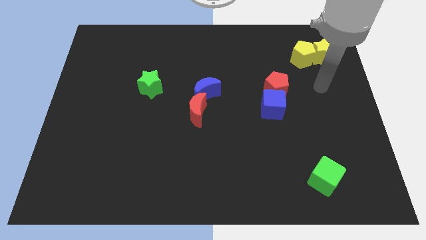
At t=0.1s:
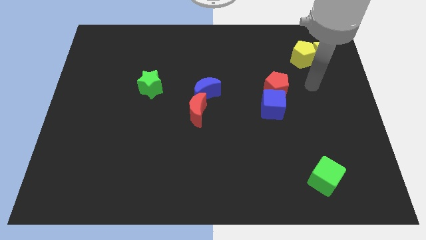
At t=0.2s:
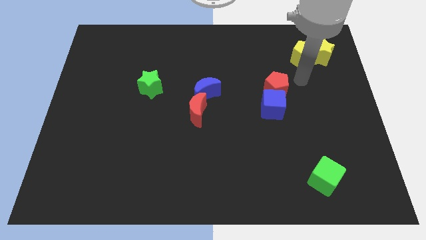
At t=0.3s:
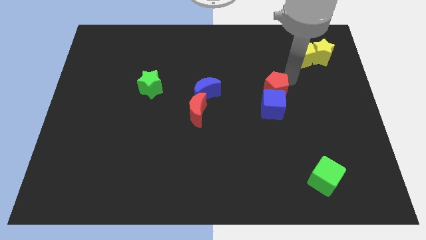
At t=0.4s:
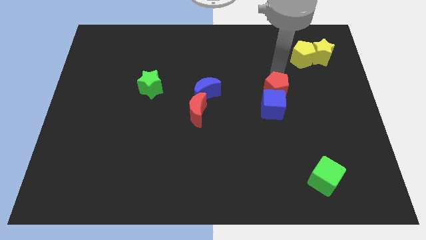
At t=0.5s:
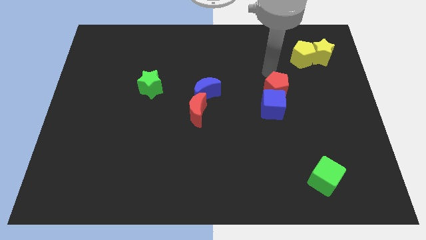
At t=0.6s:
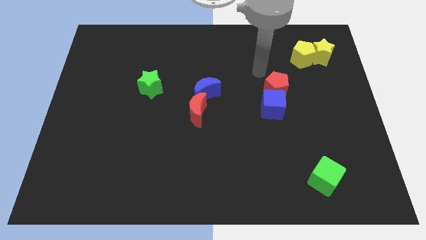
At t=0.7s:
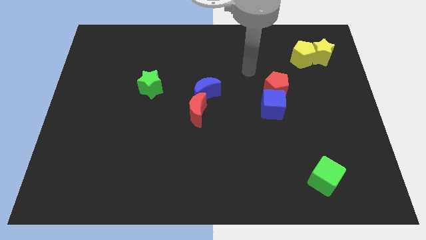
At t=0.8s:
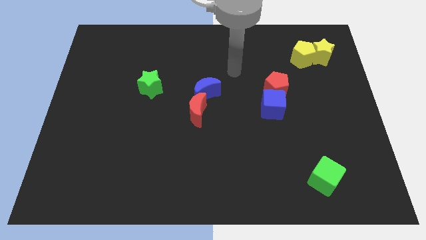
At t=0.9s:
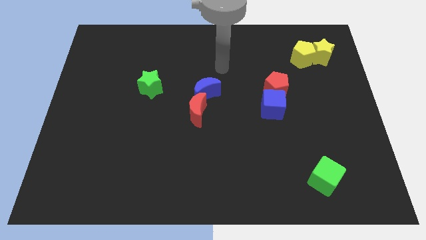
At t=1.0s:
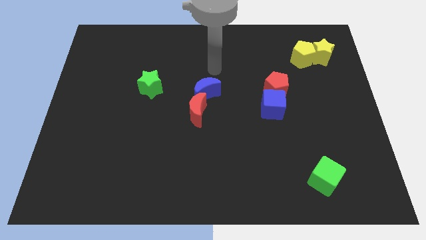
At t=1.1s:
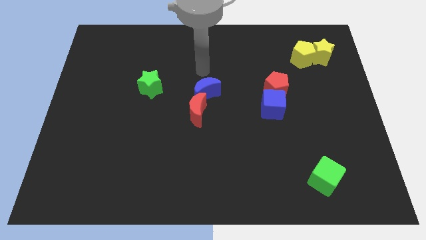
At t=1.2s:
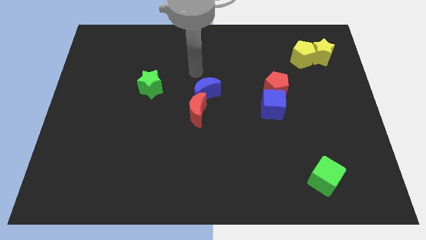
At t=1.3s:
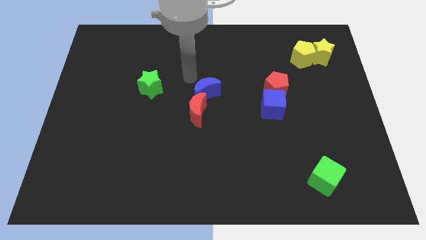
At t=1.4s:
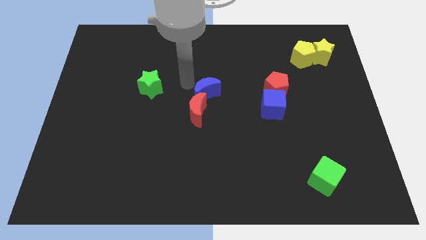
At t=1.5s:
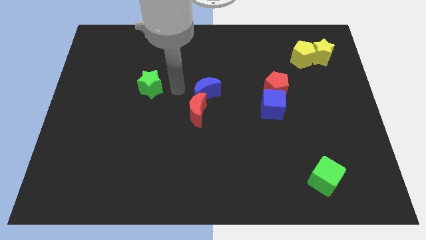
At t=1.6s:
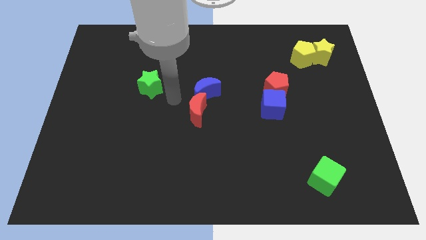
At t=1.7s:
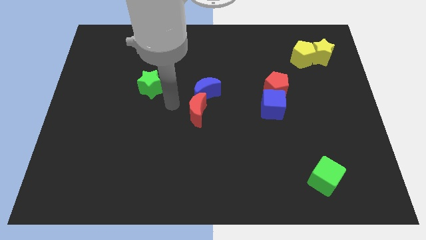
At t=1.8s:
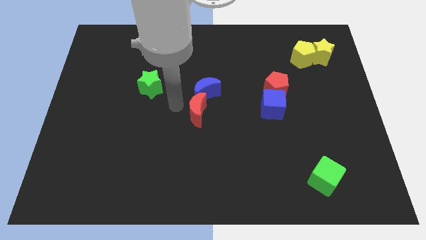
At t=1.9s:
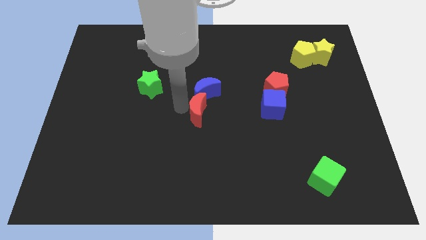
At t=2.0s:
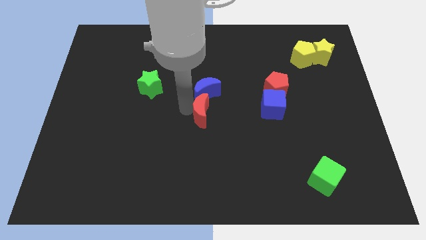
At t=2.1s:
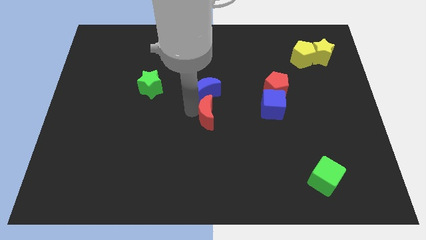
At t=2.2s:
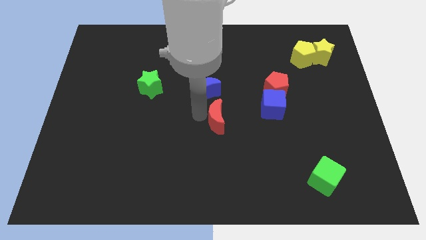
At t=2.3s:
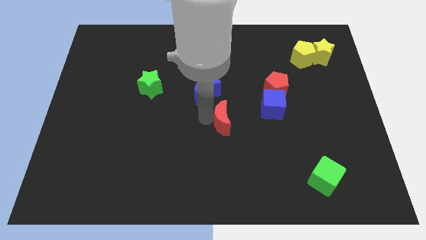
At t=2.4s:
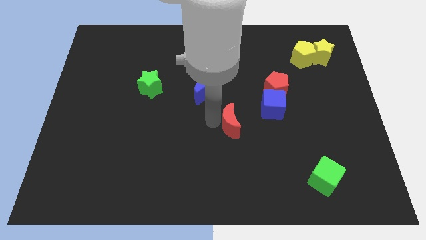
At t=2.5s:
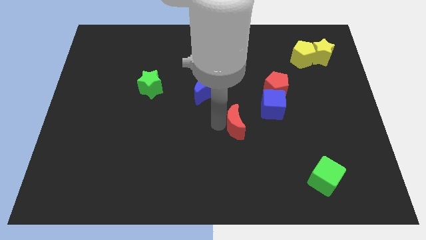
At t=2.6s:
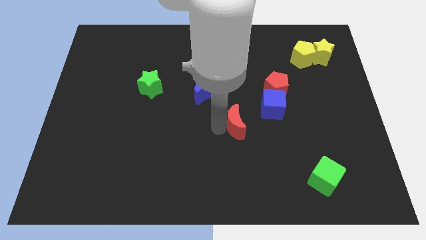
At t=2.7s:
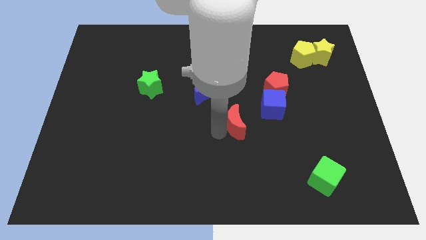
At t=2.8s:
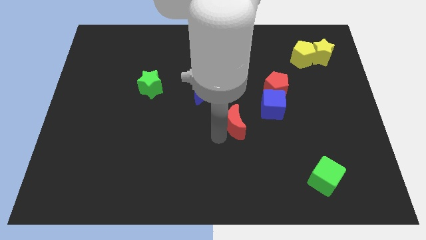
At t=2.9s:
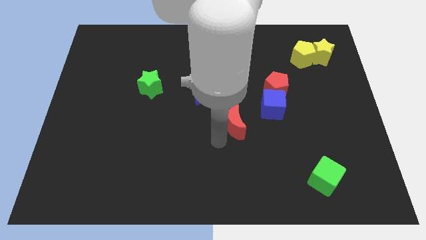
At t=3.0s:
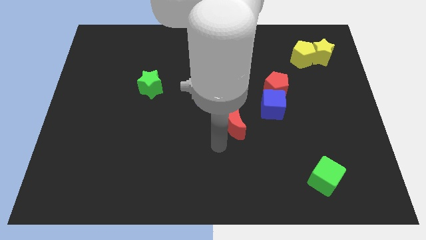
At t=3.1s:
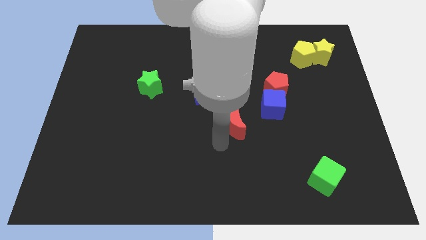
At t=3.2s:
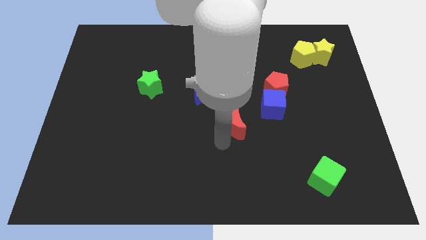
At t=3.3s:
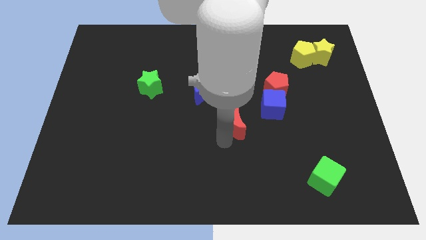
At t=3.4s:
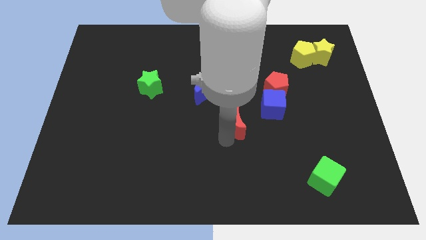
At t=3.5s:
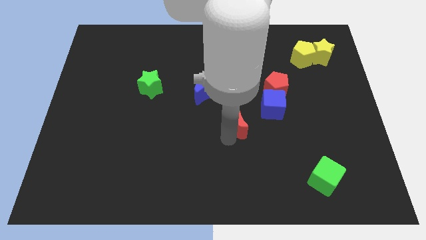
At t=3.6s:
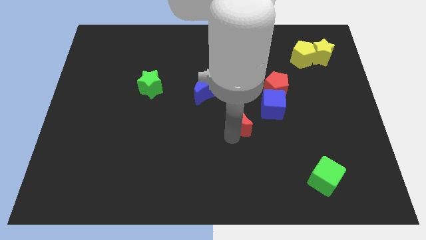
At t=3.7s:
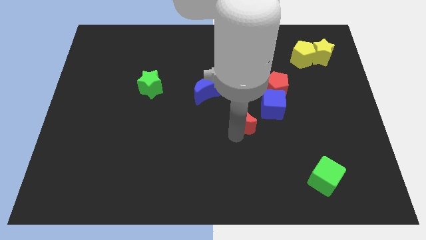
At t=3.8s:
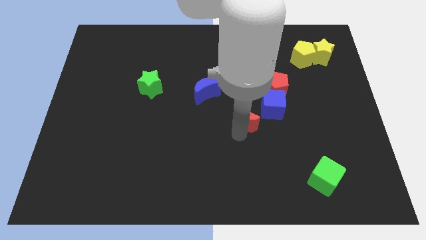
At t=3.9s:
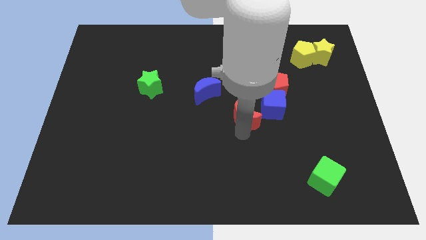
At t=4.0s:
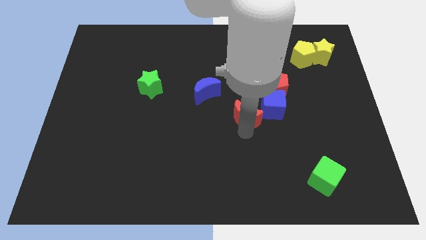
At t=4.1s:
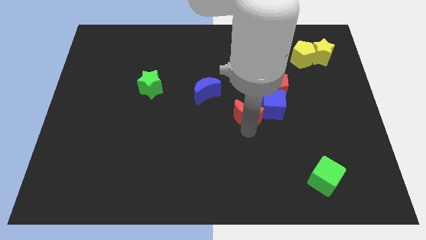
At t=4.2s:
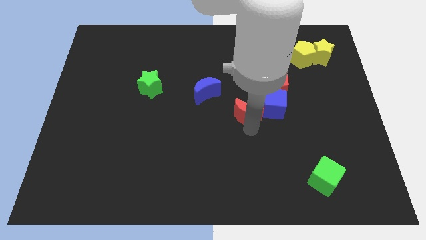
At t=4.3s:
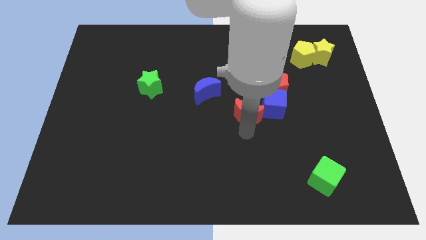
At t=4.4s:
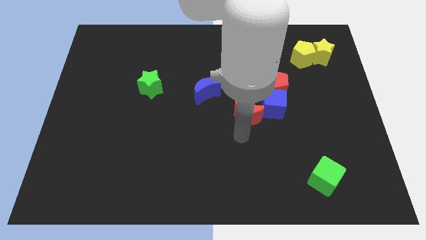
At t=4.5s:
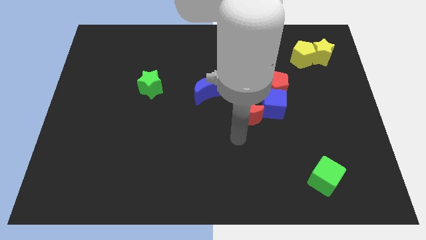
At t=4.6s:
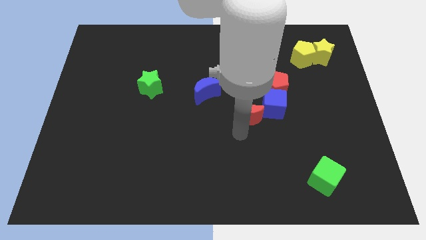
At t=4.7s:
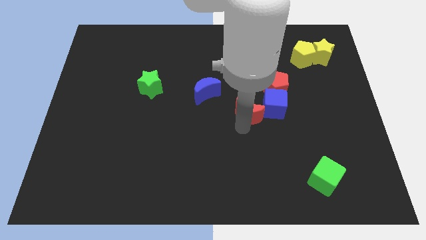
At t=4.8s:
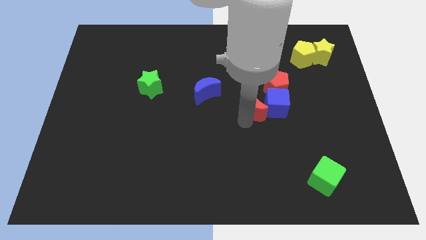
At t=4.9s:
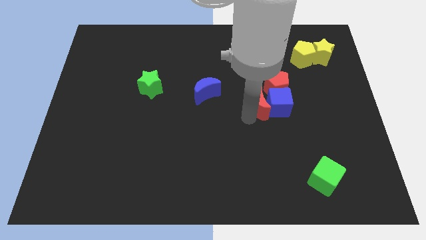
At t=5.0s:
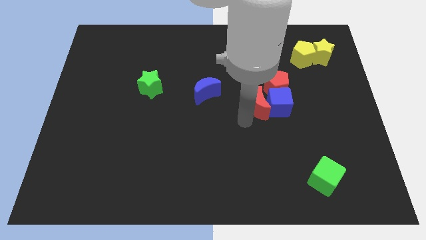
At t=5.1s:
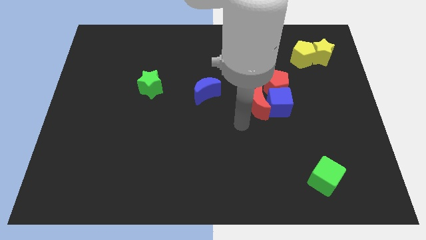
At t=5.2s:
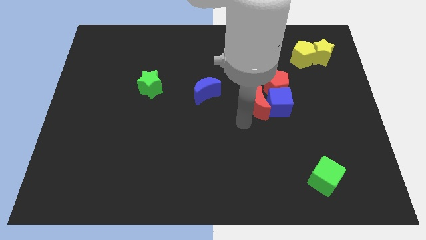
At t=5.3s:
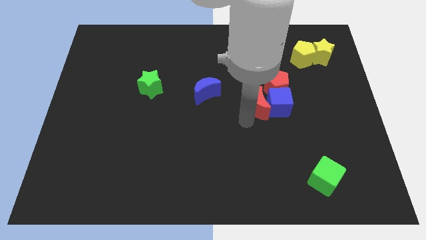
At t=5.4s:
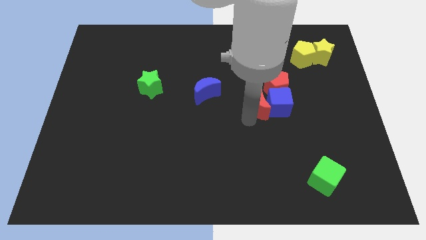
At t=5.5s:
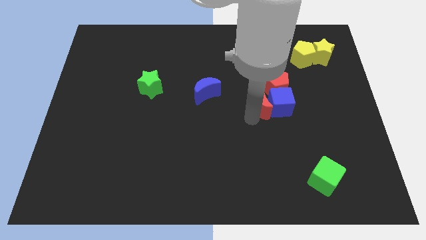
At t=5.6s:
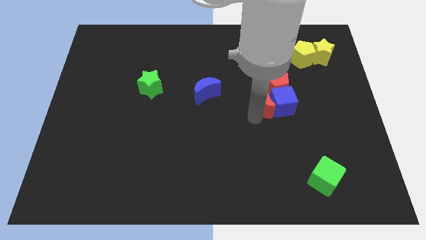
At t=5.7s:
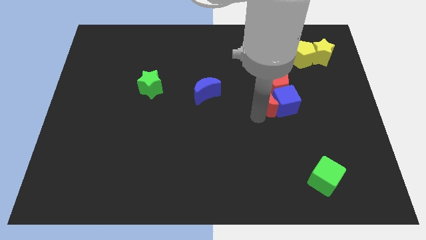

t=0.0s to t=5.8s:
put the red moon close to the red pentagon

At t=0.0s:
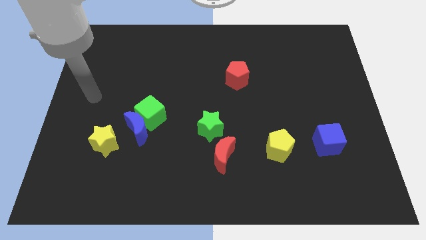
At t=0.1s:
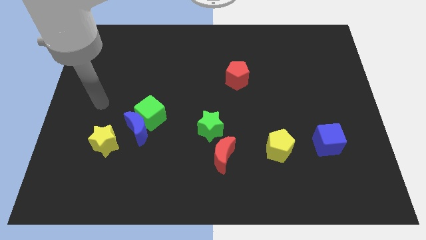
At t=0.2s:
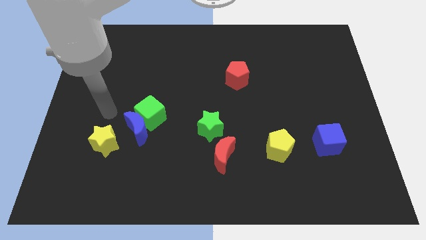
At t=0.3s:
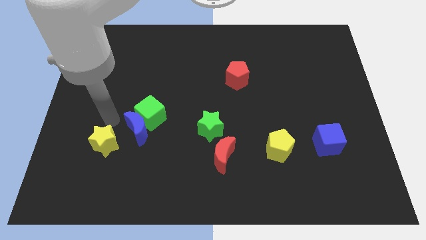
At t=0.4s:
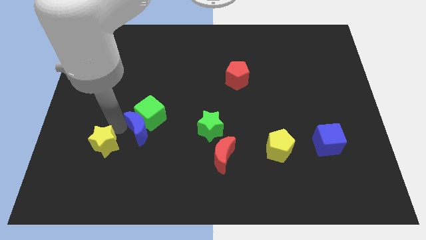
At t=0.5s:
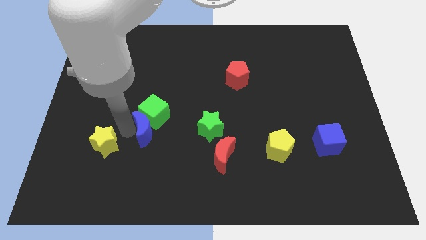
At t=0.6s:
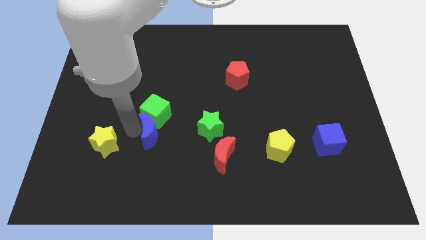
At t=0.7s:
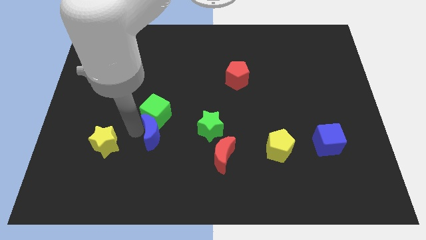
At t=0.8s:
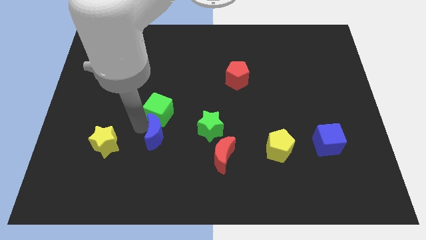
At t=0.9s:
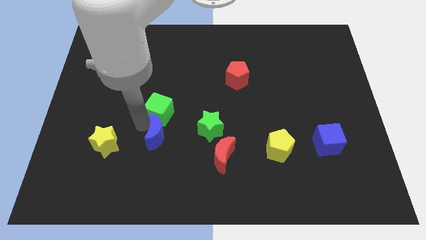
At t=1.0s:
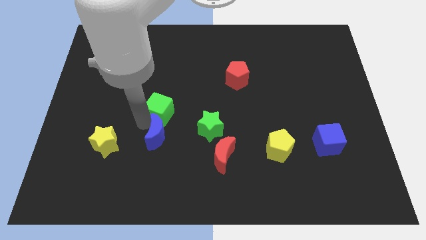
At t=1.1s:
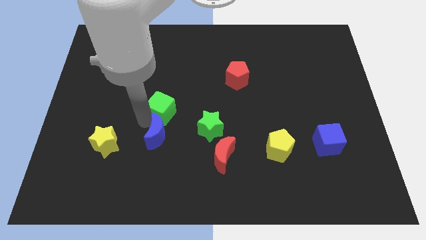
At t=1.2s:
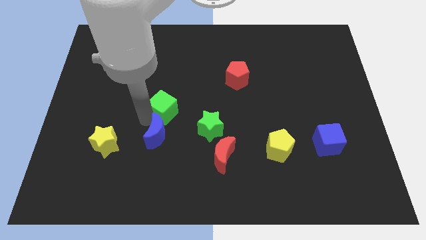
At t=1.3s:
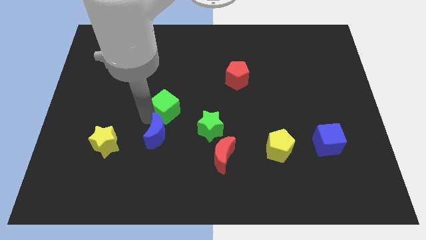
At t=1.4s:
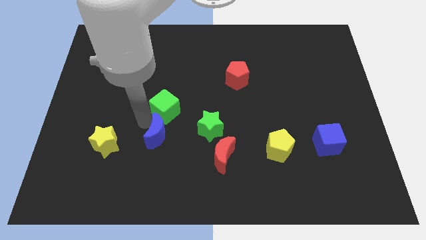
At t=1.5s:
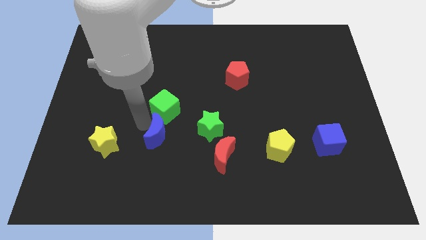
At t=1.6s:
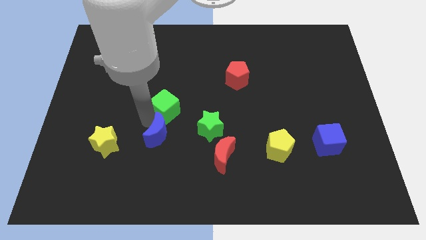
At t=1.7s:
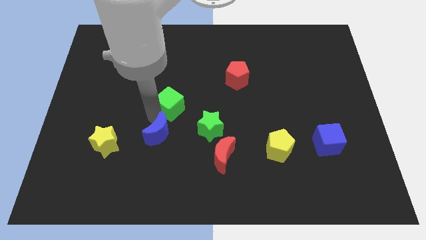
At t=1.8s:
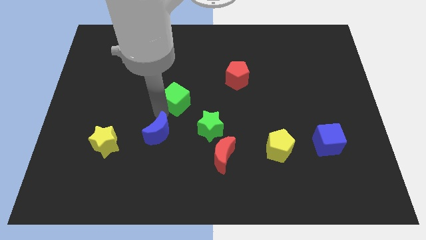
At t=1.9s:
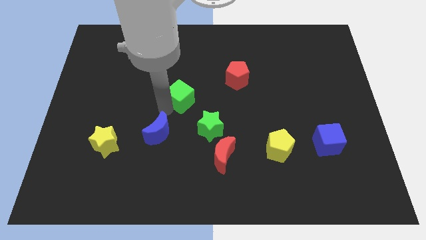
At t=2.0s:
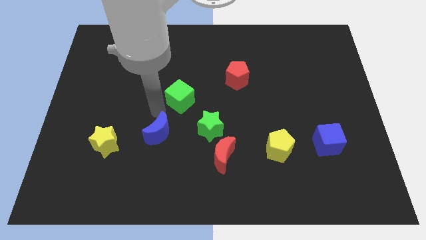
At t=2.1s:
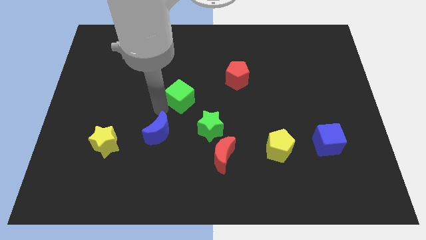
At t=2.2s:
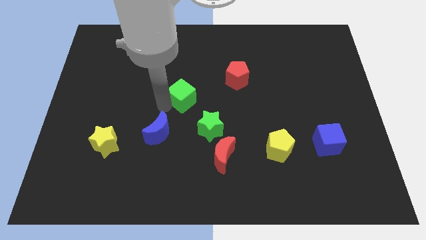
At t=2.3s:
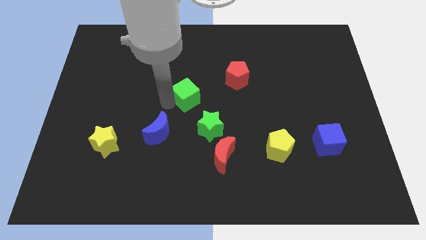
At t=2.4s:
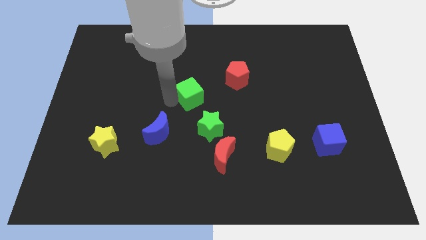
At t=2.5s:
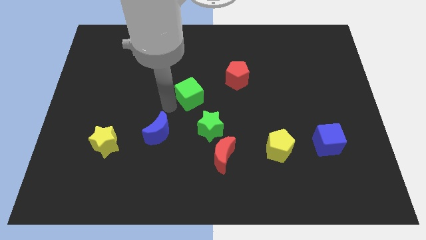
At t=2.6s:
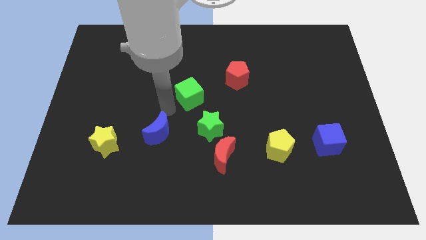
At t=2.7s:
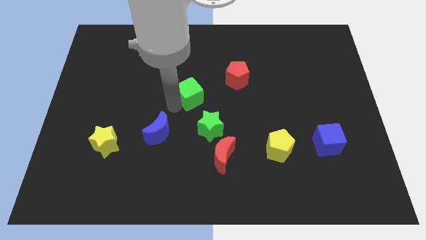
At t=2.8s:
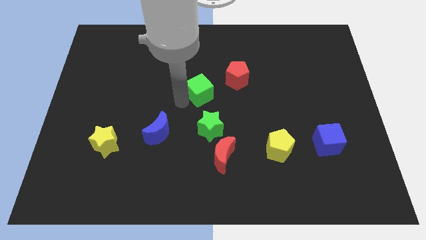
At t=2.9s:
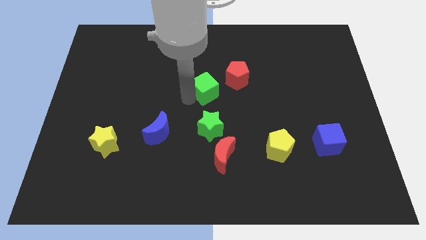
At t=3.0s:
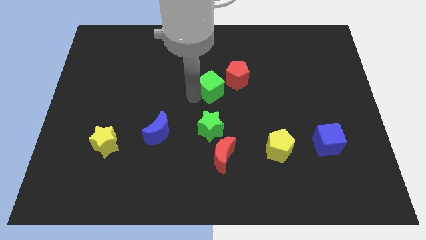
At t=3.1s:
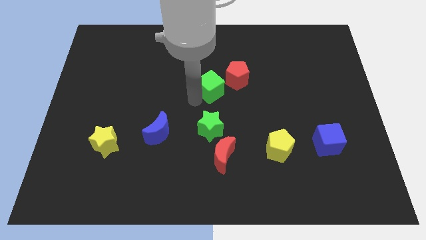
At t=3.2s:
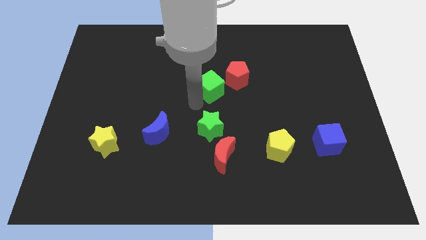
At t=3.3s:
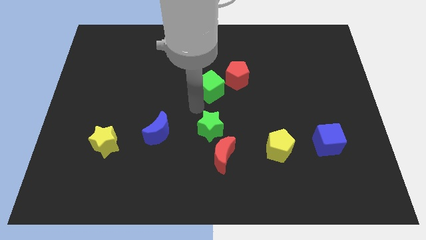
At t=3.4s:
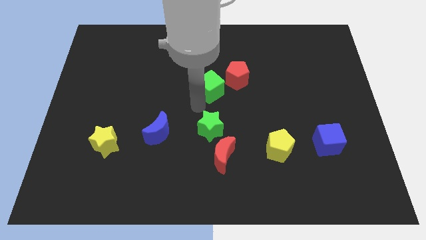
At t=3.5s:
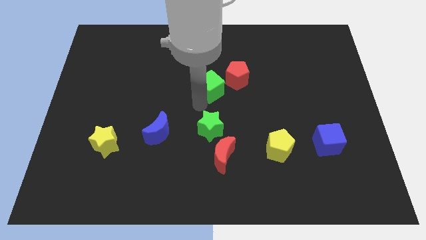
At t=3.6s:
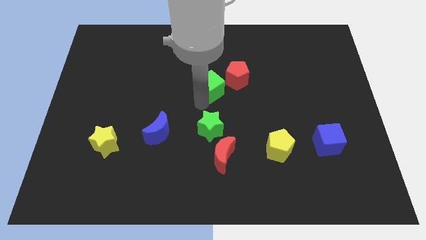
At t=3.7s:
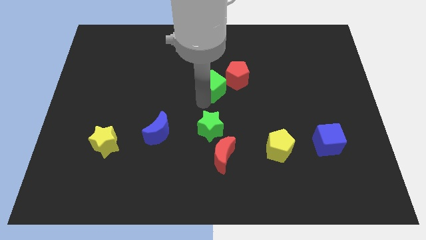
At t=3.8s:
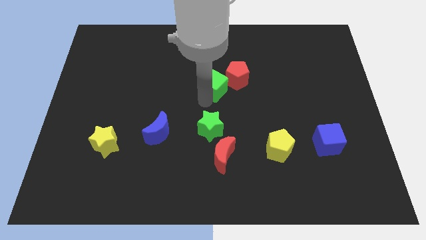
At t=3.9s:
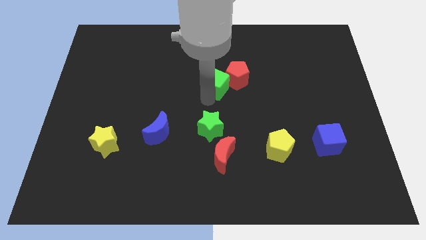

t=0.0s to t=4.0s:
move the green cube close to the red pentagon
